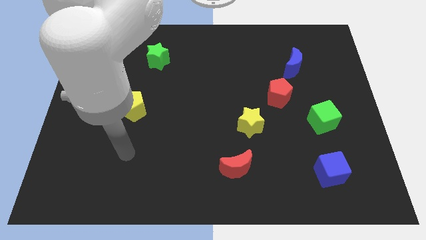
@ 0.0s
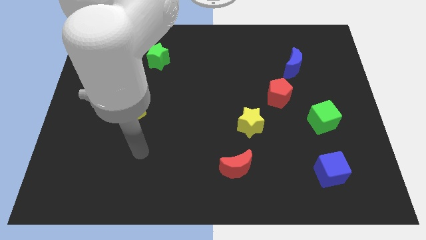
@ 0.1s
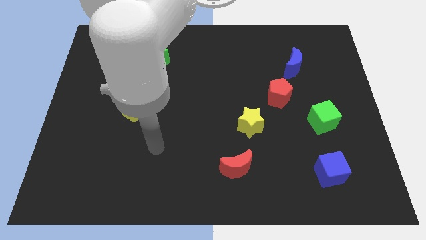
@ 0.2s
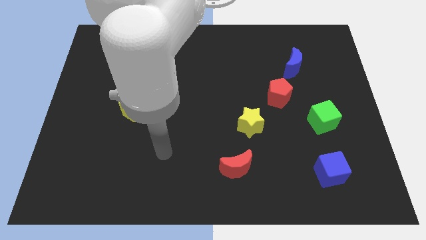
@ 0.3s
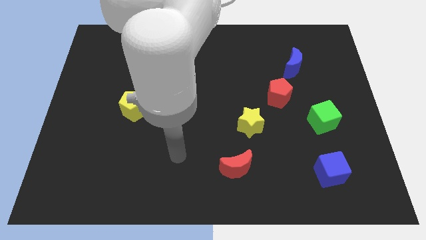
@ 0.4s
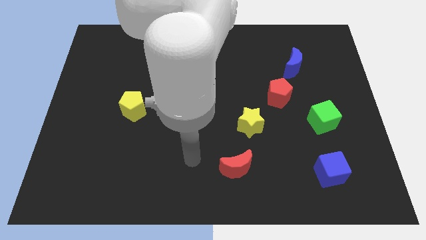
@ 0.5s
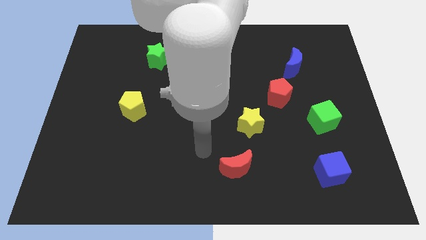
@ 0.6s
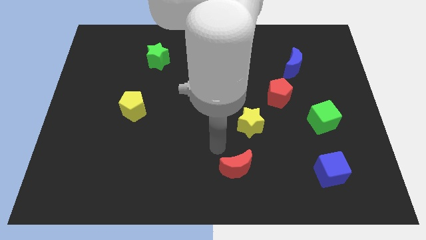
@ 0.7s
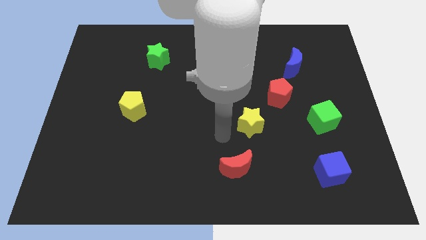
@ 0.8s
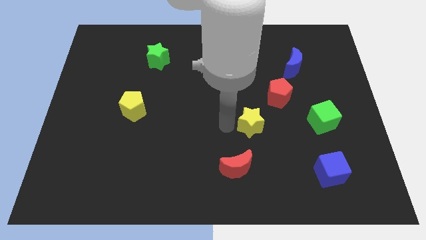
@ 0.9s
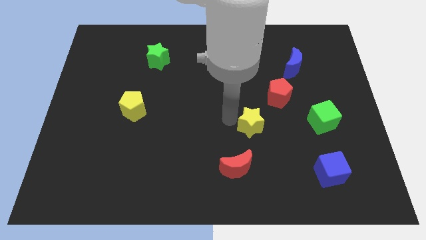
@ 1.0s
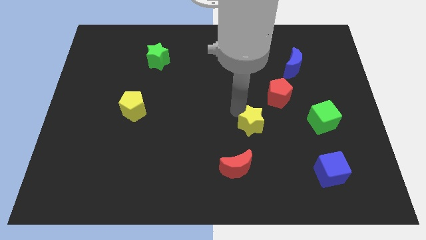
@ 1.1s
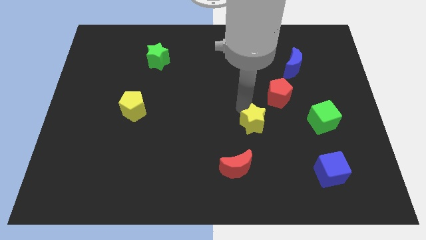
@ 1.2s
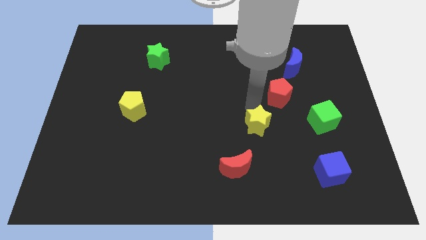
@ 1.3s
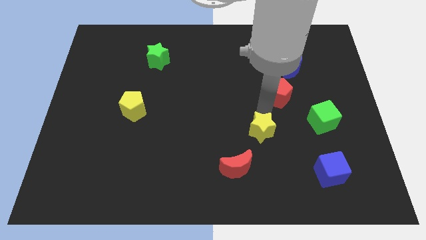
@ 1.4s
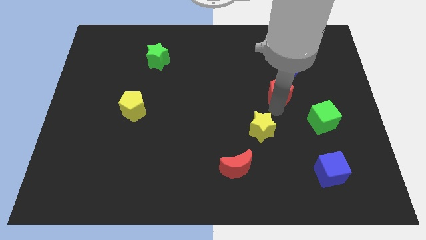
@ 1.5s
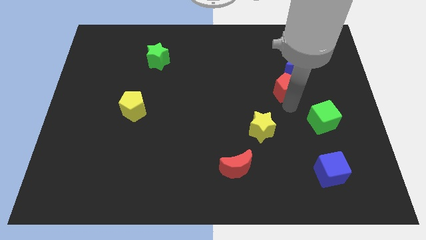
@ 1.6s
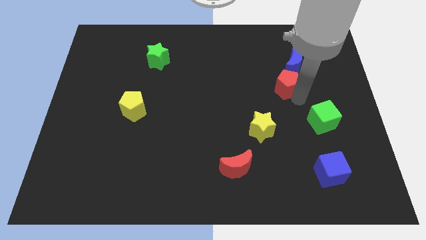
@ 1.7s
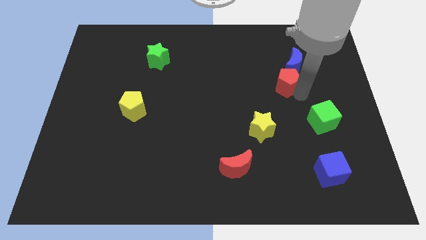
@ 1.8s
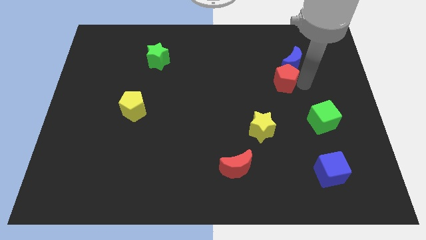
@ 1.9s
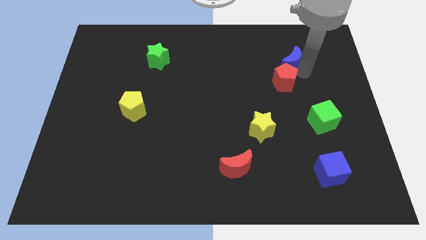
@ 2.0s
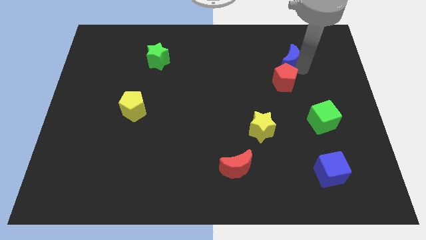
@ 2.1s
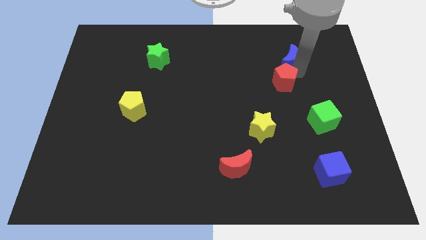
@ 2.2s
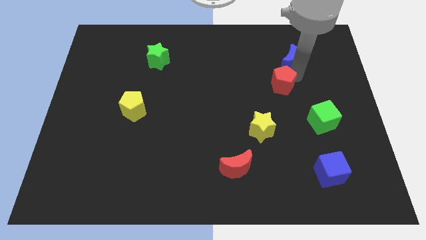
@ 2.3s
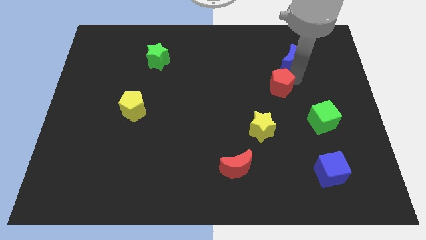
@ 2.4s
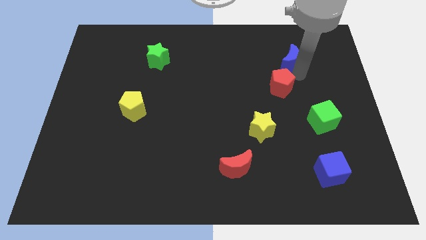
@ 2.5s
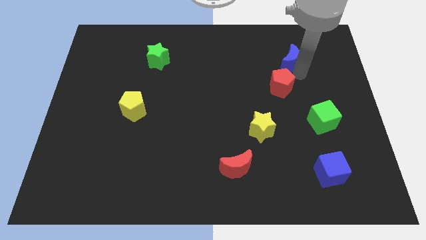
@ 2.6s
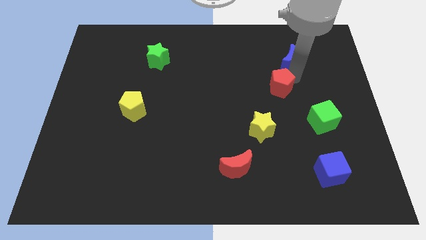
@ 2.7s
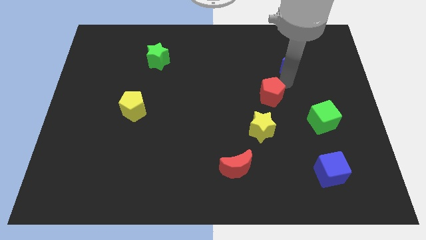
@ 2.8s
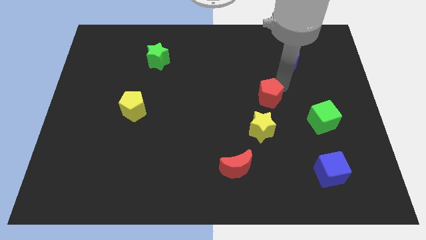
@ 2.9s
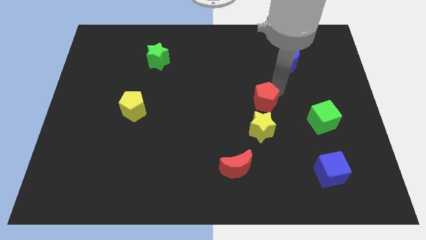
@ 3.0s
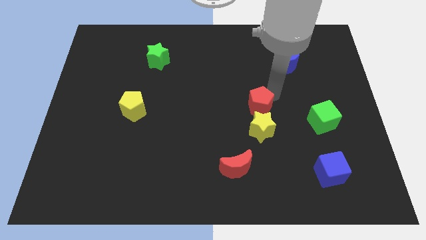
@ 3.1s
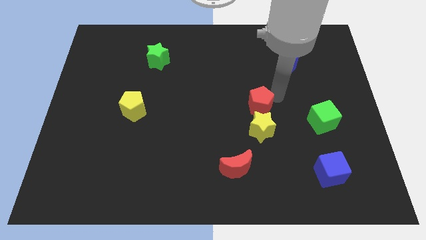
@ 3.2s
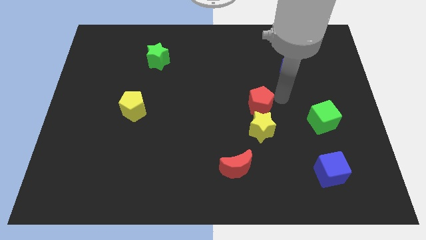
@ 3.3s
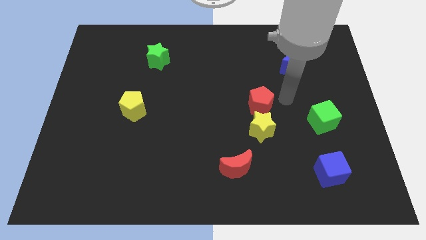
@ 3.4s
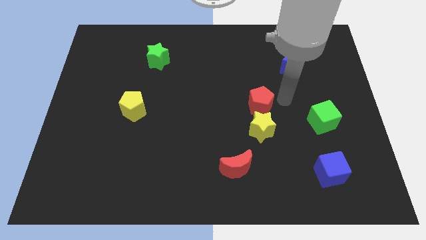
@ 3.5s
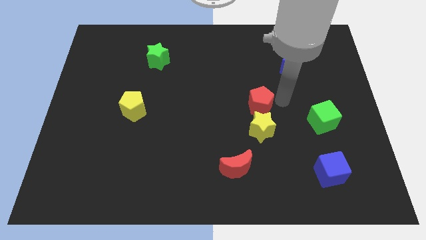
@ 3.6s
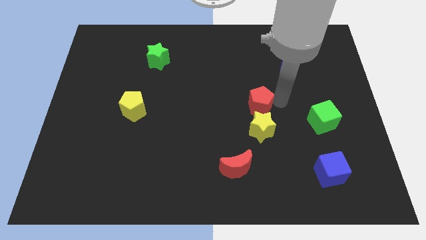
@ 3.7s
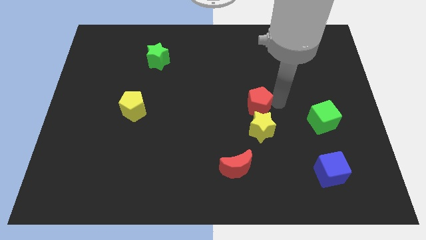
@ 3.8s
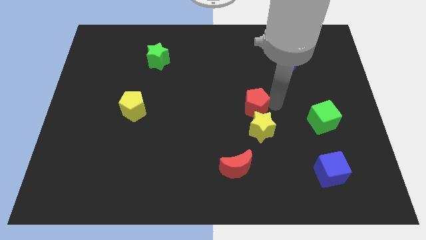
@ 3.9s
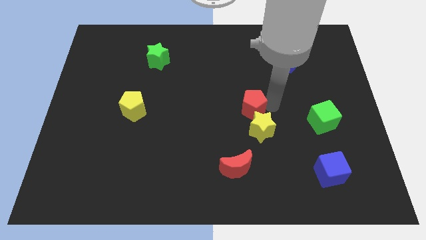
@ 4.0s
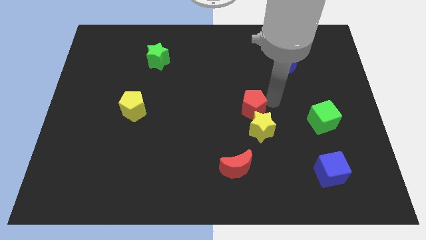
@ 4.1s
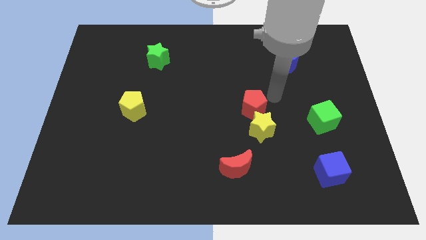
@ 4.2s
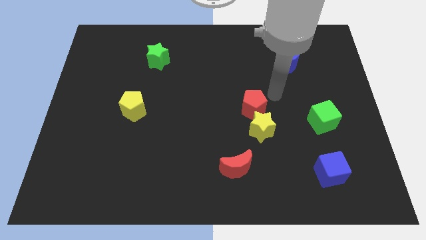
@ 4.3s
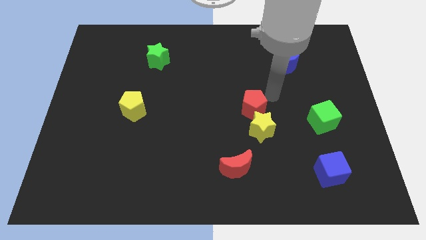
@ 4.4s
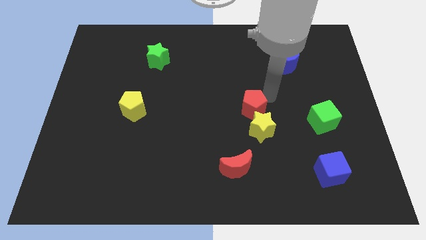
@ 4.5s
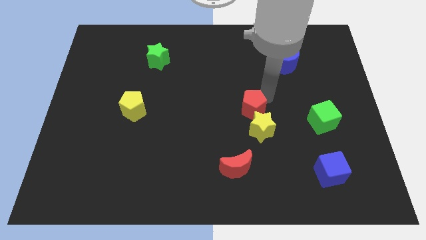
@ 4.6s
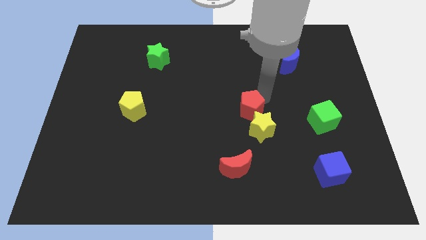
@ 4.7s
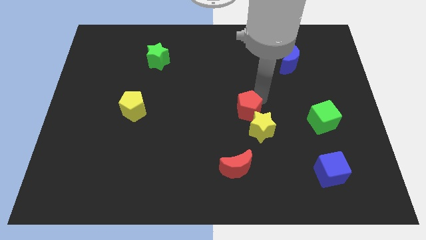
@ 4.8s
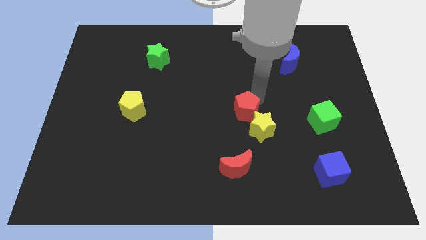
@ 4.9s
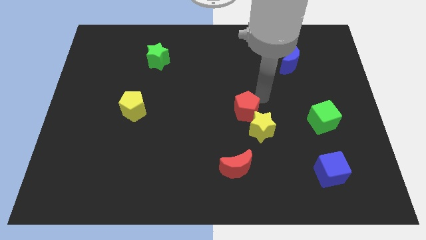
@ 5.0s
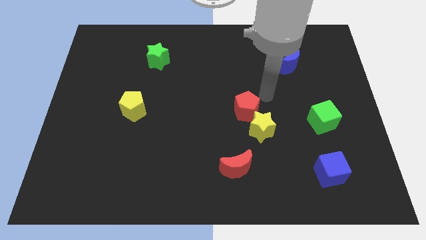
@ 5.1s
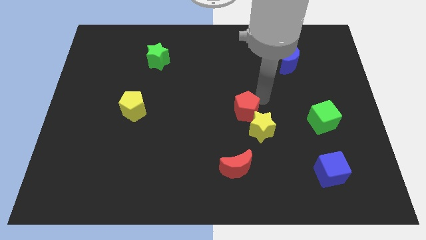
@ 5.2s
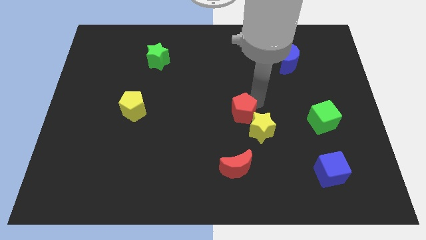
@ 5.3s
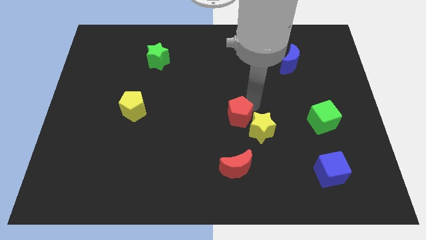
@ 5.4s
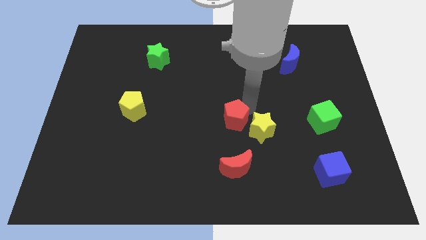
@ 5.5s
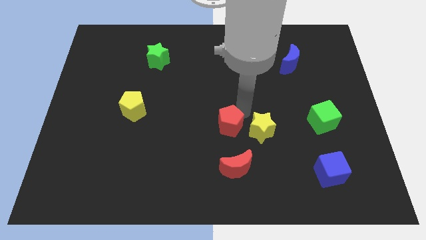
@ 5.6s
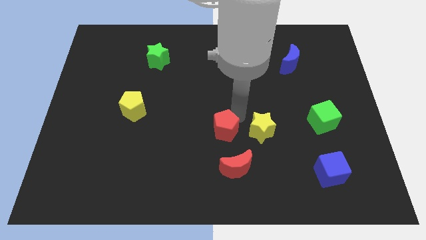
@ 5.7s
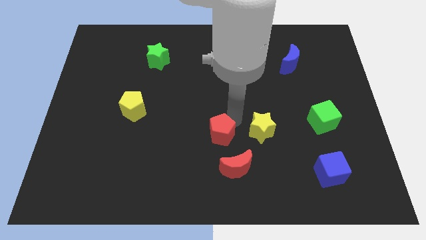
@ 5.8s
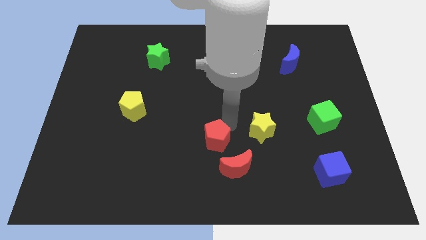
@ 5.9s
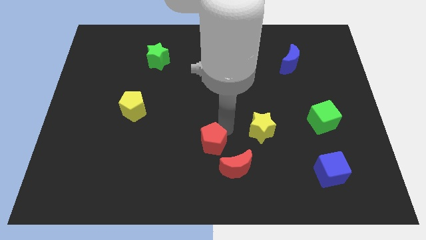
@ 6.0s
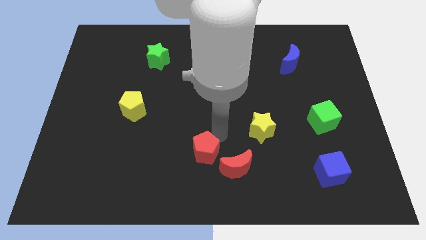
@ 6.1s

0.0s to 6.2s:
put the red pentagon to the left side of the red moon

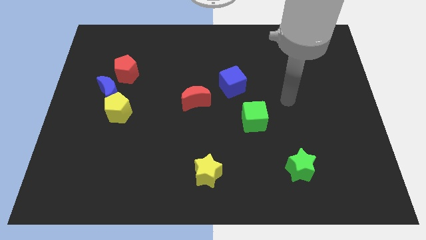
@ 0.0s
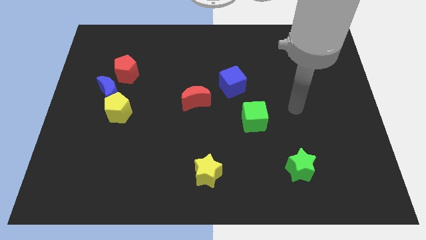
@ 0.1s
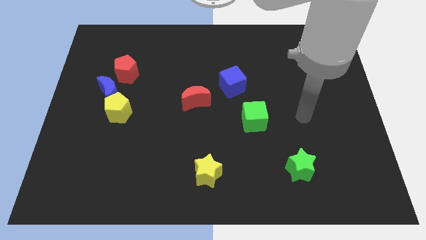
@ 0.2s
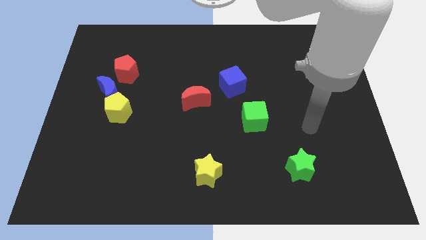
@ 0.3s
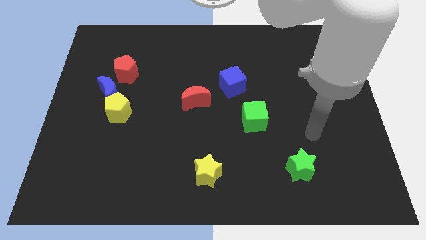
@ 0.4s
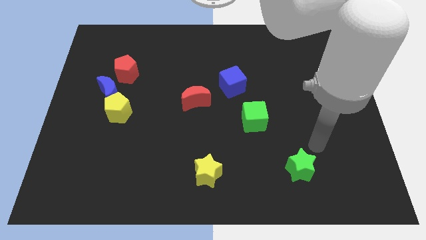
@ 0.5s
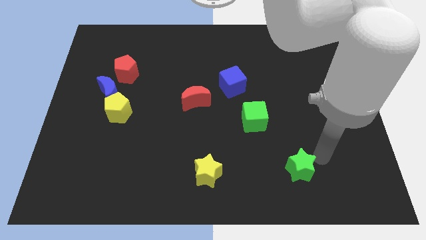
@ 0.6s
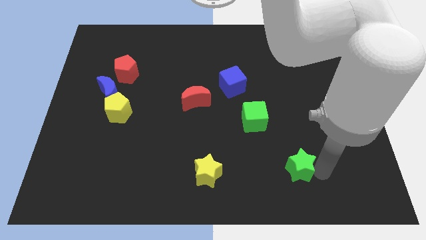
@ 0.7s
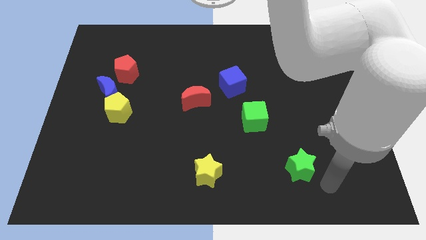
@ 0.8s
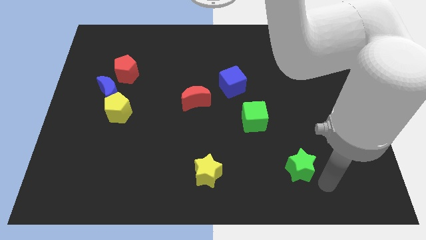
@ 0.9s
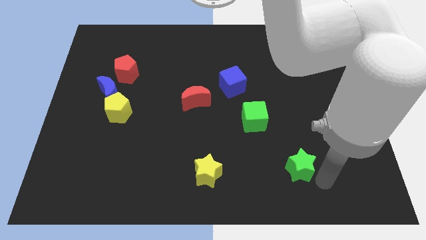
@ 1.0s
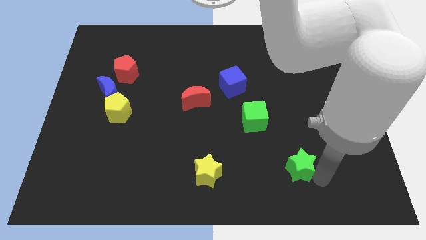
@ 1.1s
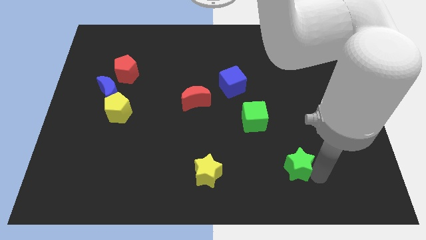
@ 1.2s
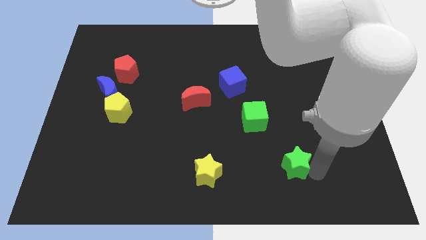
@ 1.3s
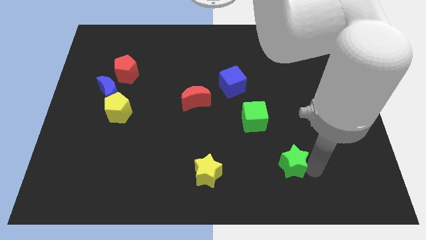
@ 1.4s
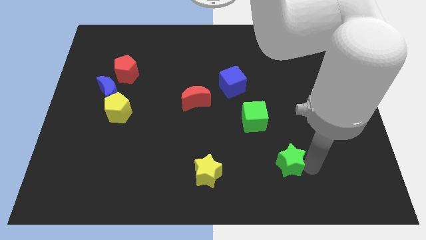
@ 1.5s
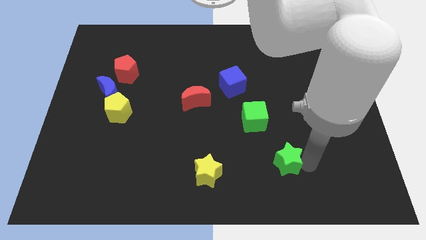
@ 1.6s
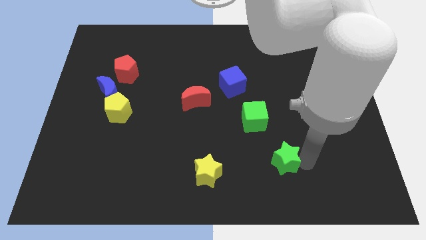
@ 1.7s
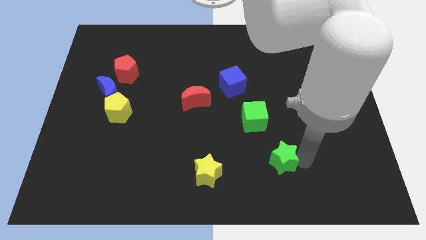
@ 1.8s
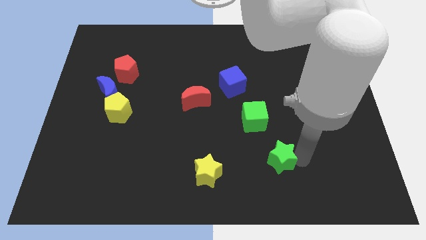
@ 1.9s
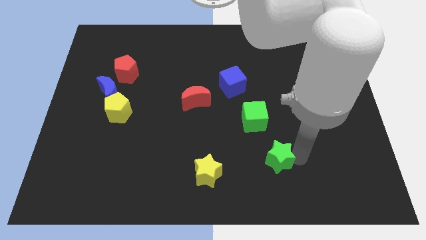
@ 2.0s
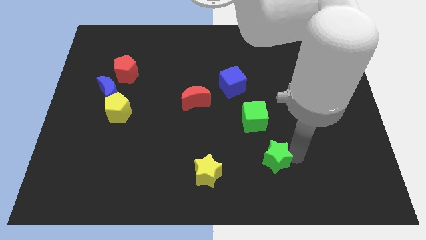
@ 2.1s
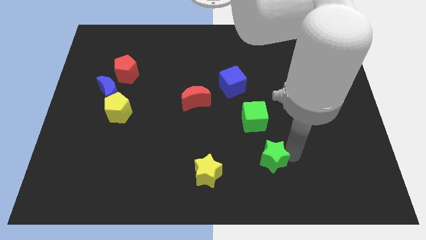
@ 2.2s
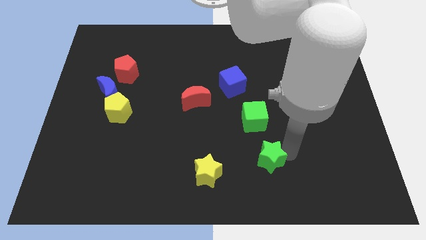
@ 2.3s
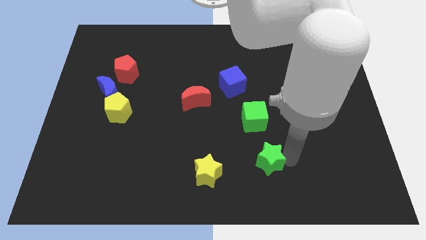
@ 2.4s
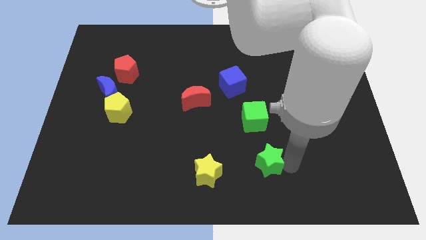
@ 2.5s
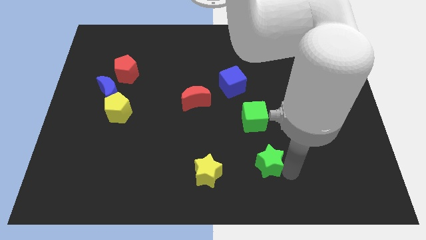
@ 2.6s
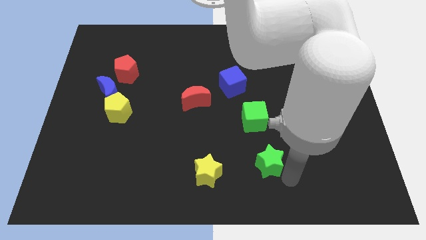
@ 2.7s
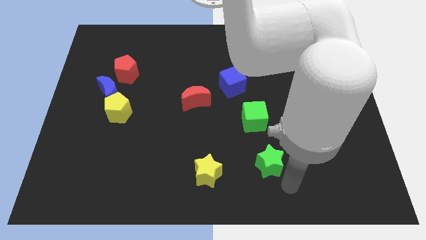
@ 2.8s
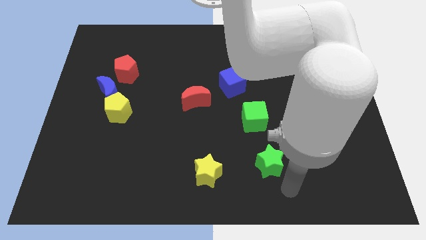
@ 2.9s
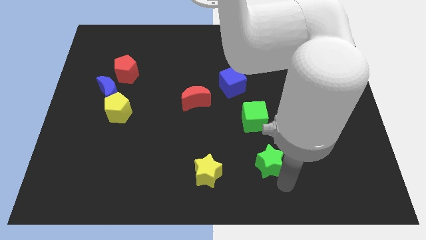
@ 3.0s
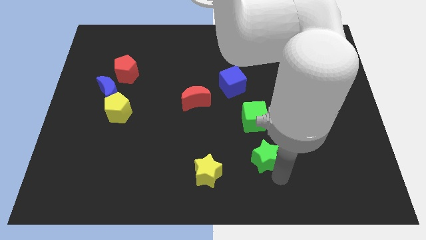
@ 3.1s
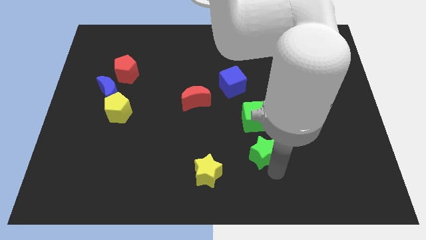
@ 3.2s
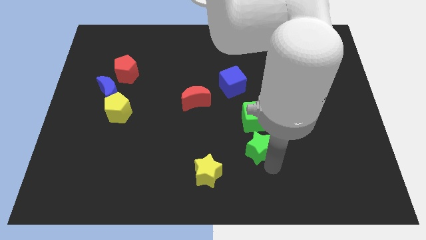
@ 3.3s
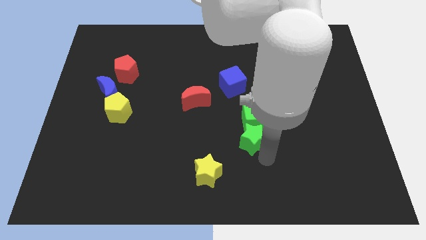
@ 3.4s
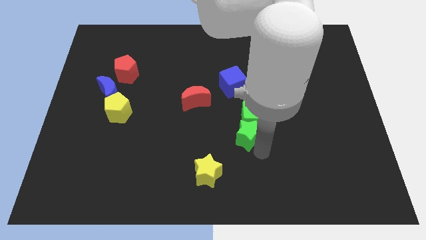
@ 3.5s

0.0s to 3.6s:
slide the green star to the bottom side of the blue cube
